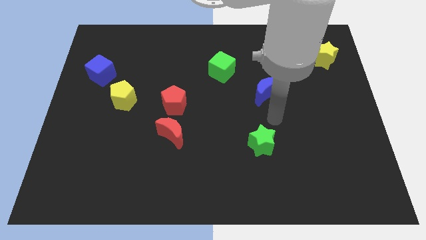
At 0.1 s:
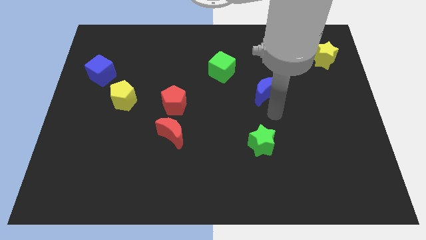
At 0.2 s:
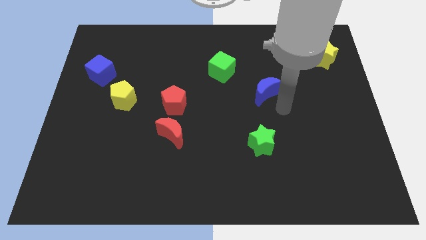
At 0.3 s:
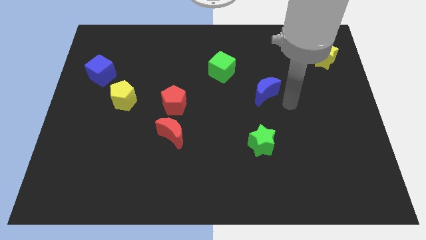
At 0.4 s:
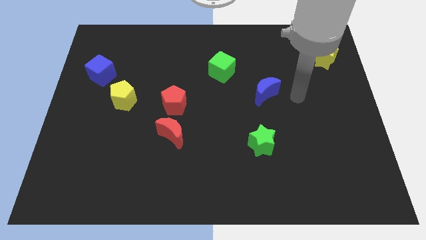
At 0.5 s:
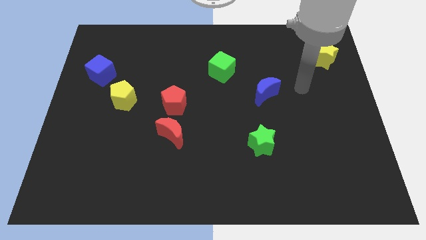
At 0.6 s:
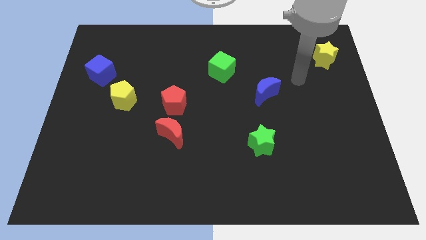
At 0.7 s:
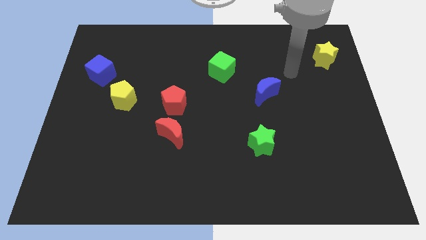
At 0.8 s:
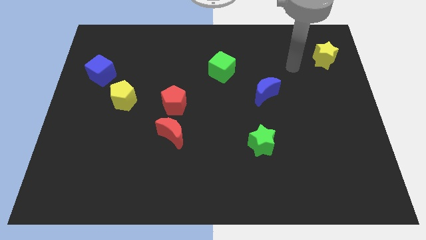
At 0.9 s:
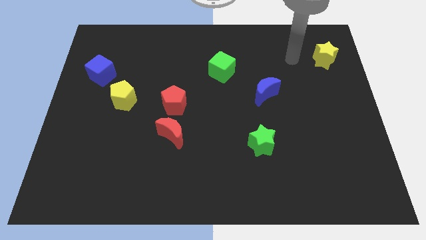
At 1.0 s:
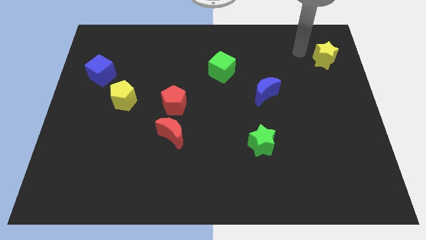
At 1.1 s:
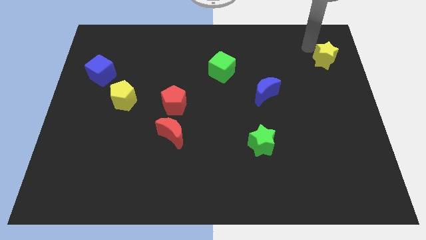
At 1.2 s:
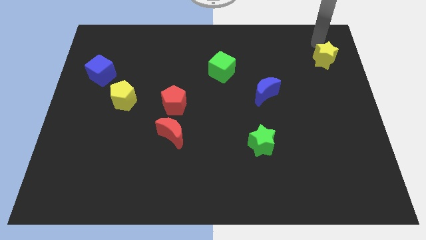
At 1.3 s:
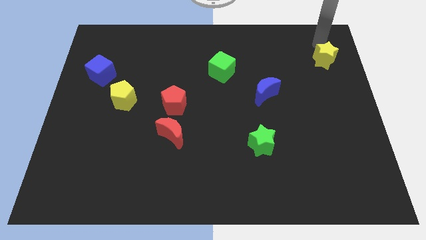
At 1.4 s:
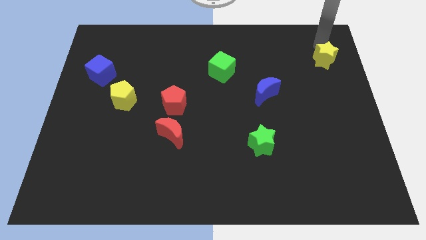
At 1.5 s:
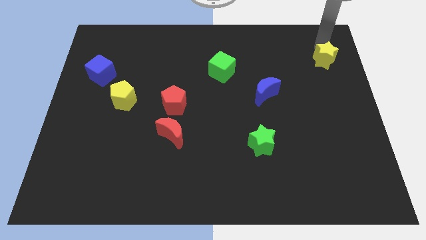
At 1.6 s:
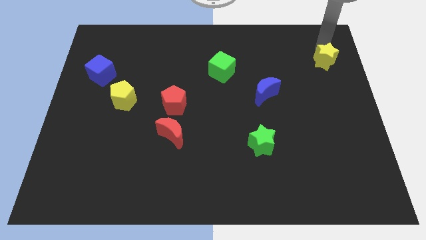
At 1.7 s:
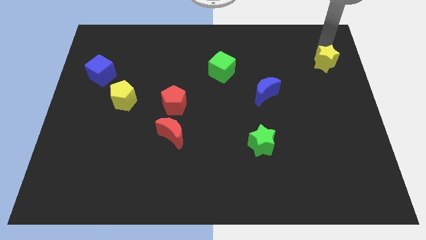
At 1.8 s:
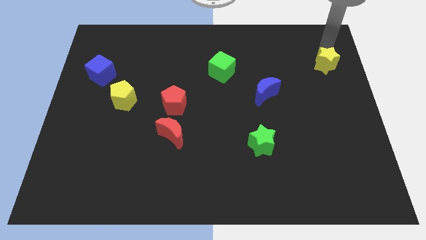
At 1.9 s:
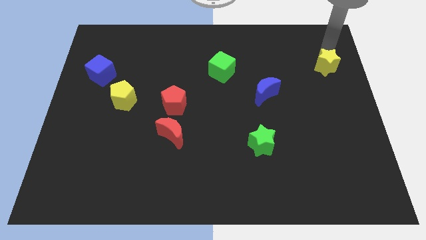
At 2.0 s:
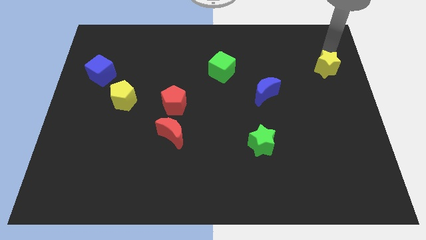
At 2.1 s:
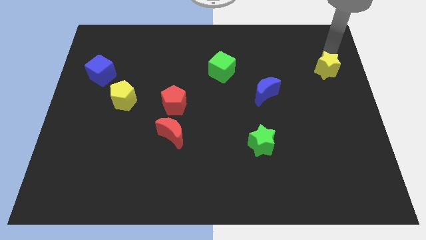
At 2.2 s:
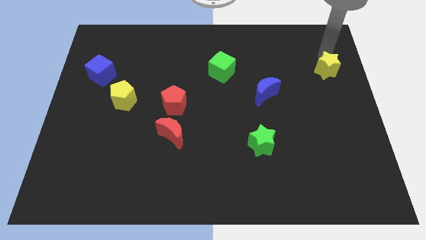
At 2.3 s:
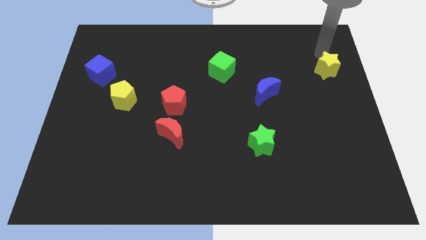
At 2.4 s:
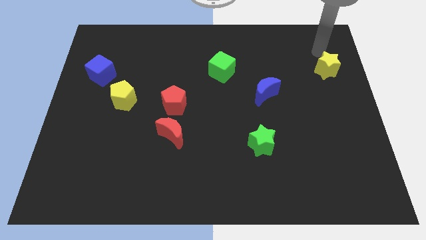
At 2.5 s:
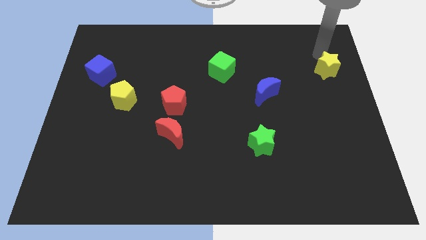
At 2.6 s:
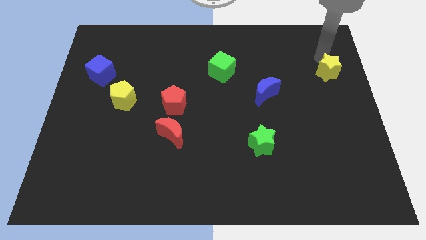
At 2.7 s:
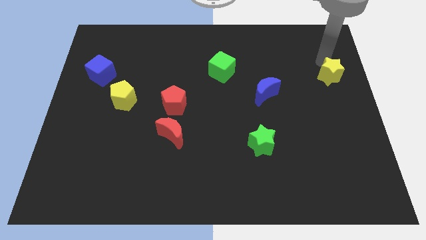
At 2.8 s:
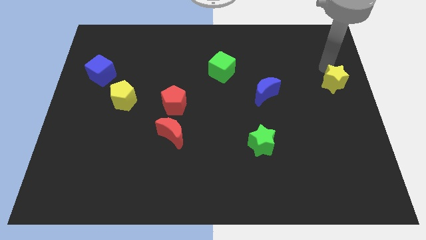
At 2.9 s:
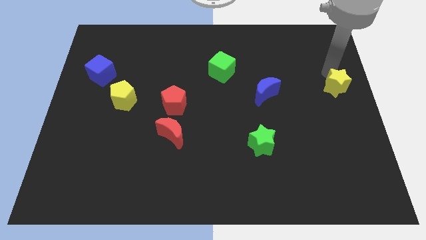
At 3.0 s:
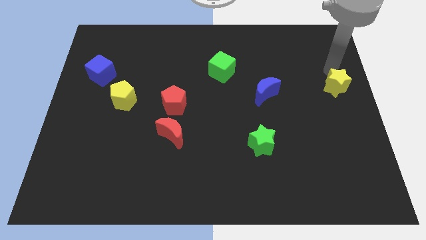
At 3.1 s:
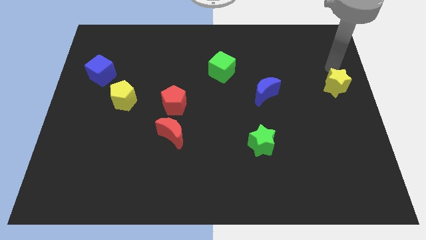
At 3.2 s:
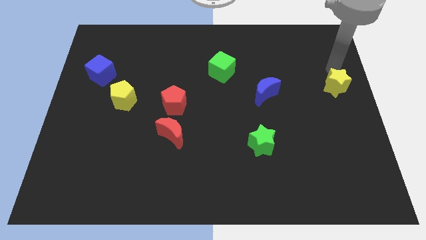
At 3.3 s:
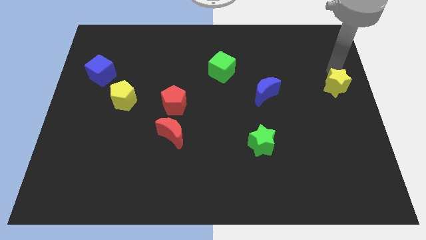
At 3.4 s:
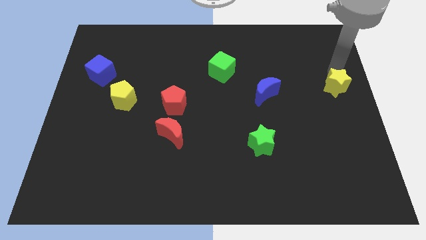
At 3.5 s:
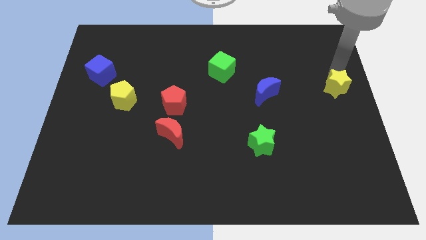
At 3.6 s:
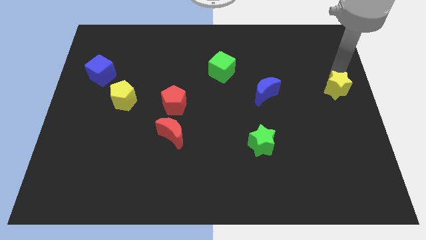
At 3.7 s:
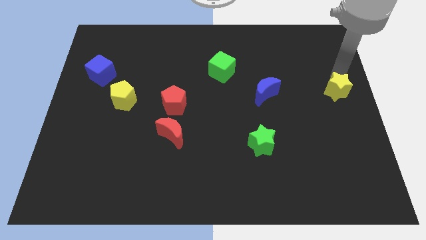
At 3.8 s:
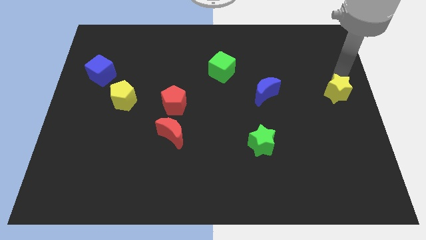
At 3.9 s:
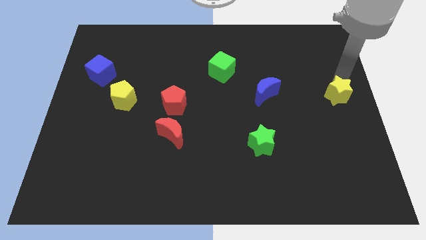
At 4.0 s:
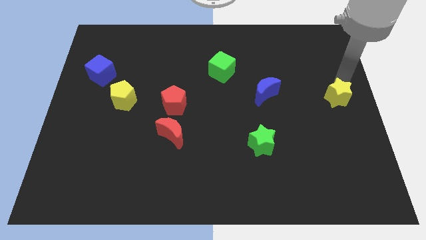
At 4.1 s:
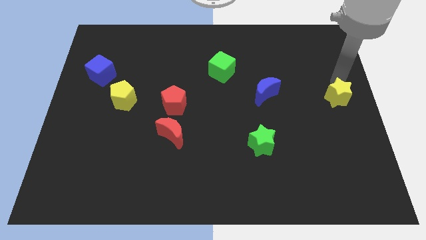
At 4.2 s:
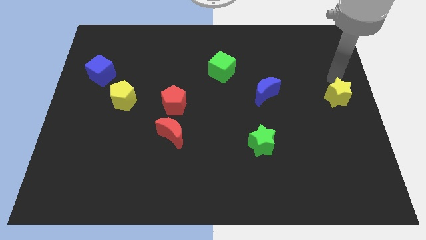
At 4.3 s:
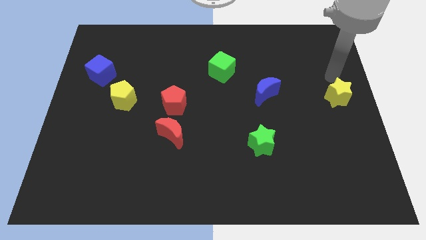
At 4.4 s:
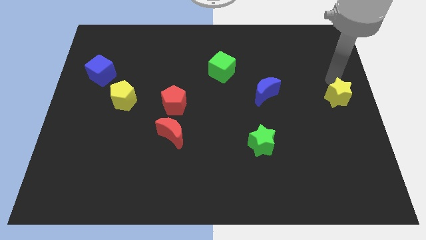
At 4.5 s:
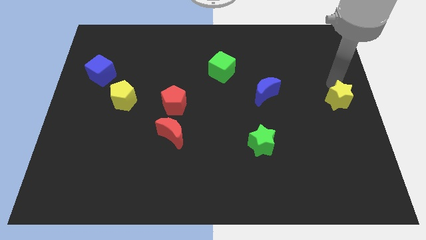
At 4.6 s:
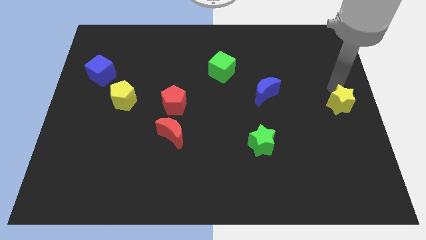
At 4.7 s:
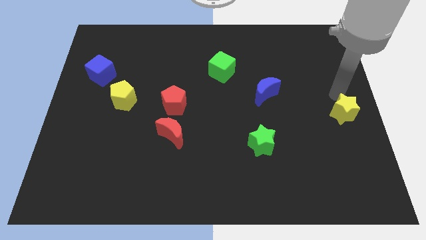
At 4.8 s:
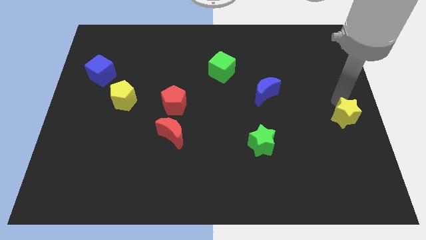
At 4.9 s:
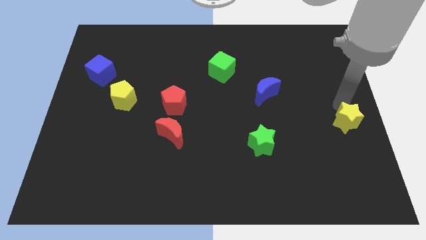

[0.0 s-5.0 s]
push the yellow star down

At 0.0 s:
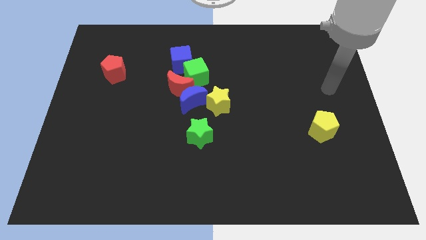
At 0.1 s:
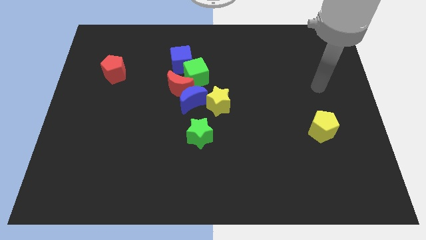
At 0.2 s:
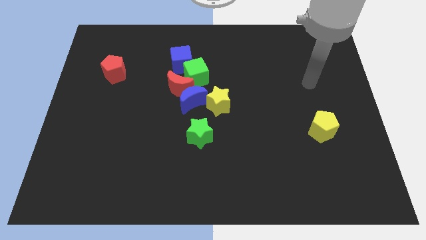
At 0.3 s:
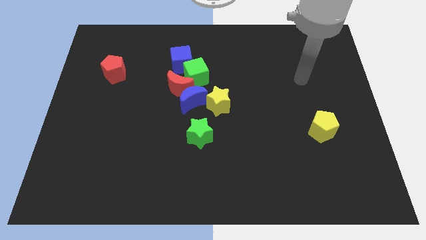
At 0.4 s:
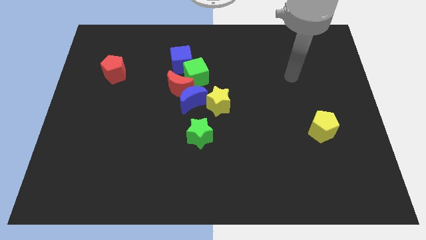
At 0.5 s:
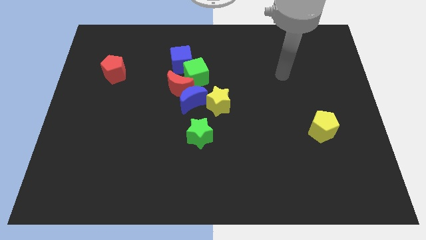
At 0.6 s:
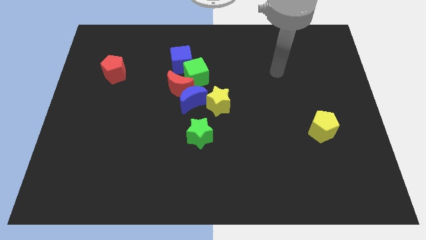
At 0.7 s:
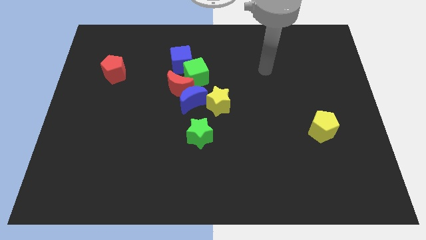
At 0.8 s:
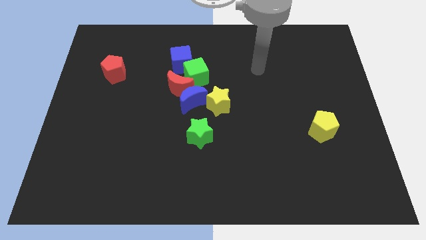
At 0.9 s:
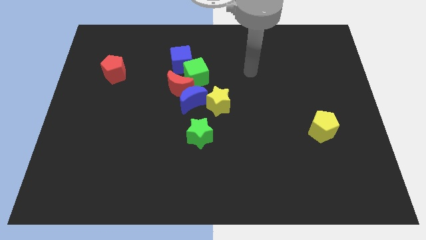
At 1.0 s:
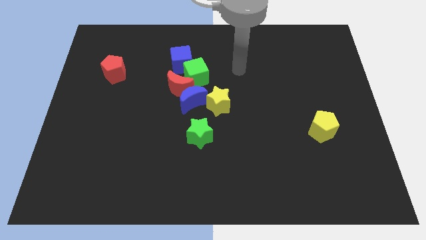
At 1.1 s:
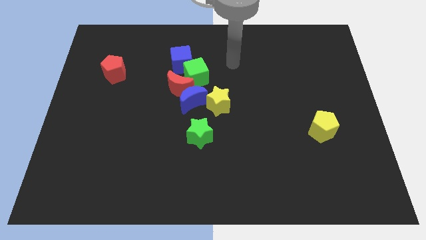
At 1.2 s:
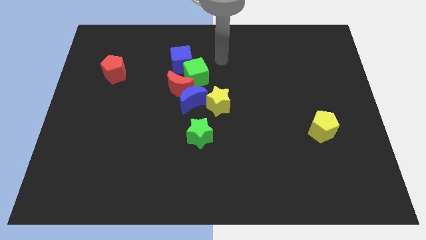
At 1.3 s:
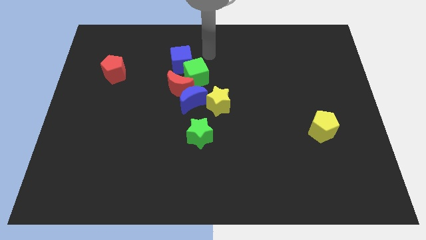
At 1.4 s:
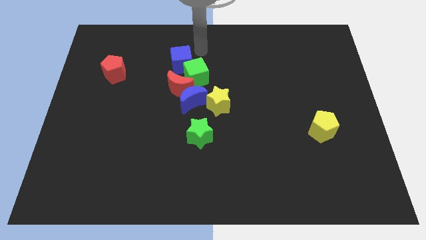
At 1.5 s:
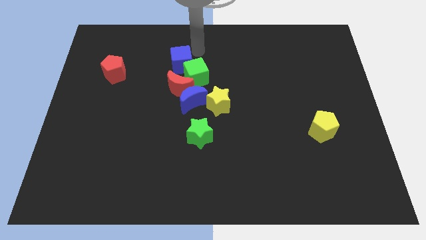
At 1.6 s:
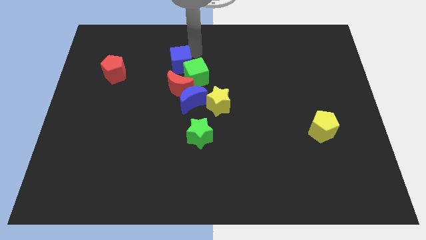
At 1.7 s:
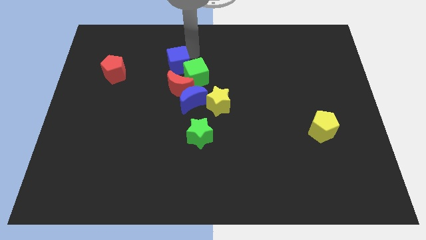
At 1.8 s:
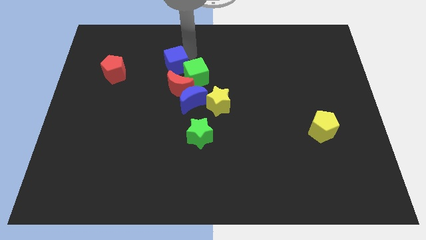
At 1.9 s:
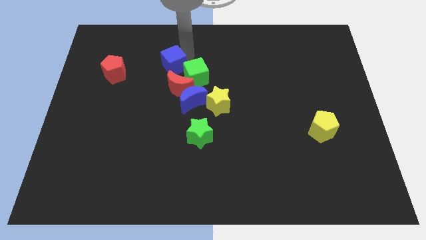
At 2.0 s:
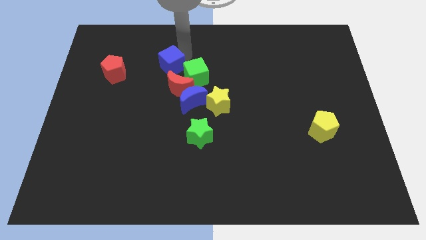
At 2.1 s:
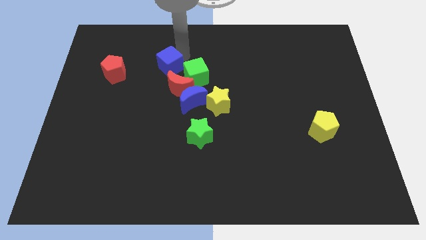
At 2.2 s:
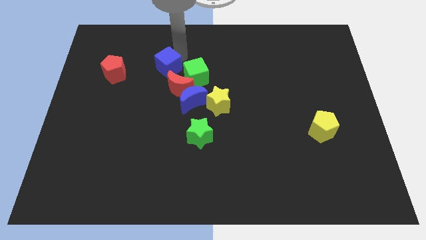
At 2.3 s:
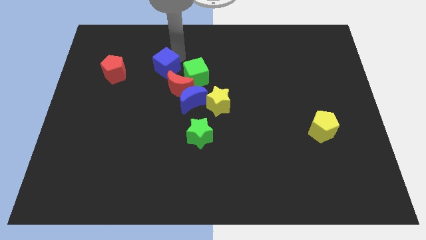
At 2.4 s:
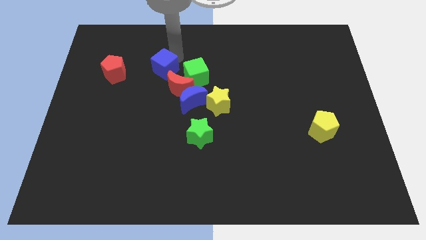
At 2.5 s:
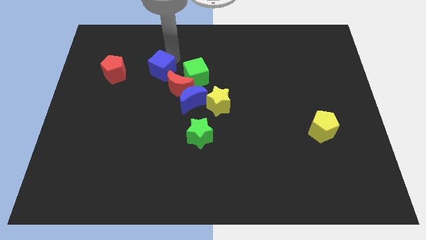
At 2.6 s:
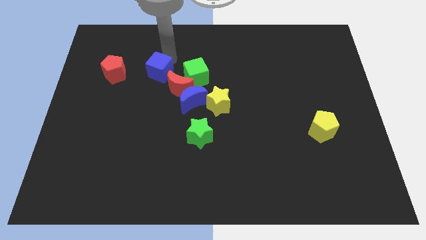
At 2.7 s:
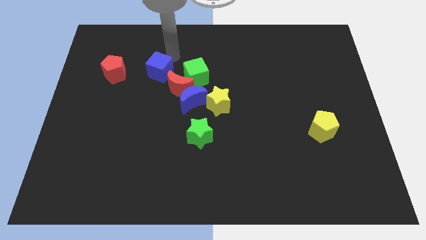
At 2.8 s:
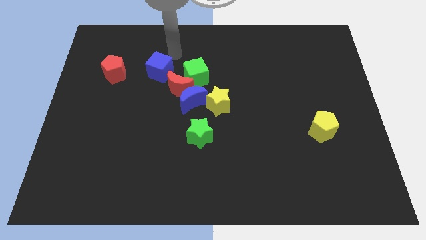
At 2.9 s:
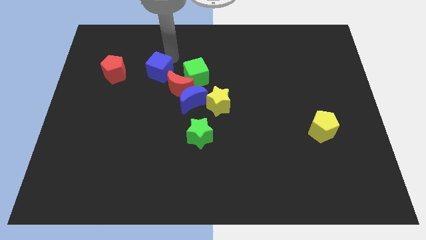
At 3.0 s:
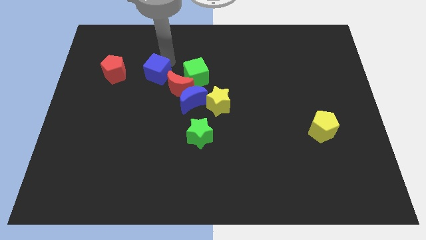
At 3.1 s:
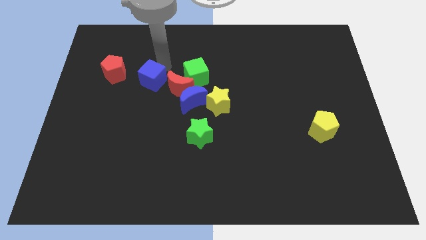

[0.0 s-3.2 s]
slightly push the blue cube downwards and to the left diagonally
